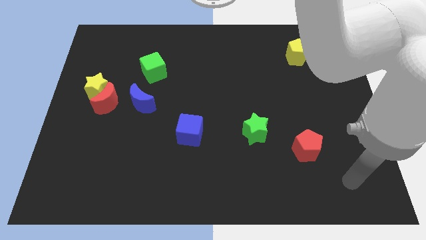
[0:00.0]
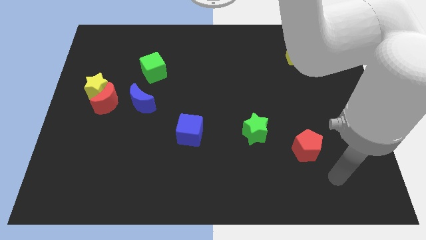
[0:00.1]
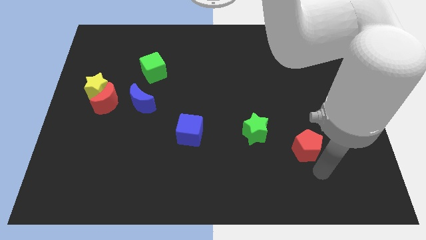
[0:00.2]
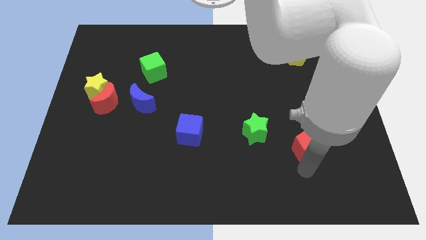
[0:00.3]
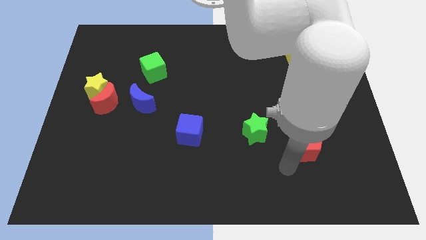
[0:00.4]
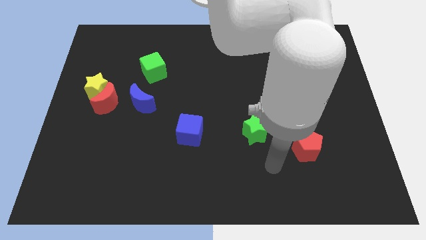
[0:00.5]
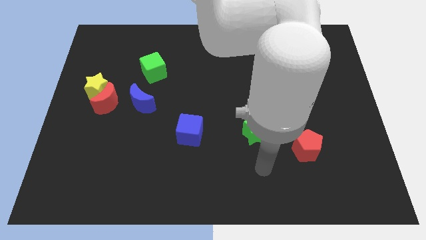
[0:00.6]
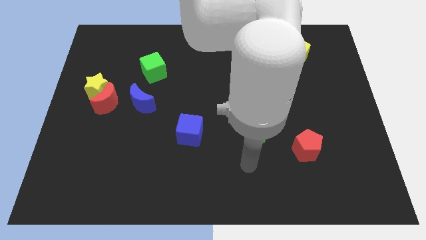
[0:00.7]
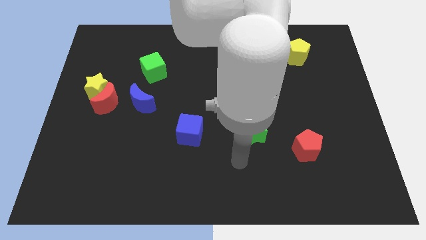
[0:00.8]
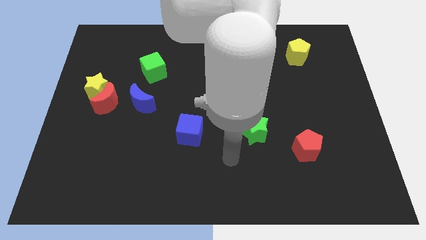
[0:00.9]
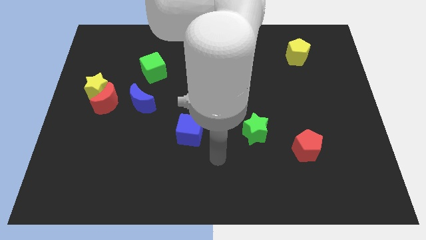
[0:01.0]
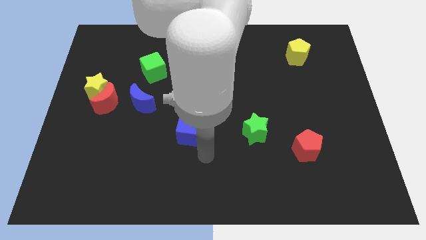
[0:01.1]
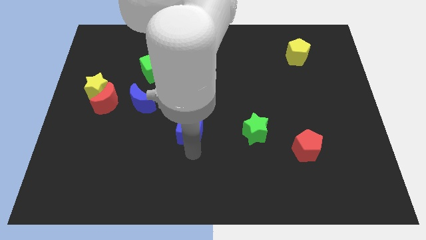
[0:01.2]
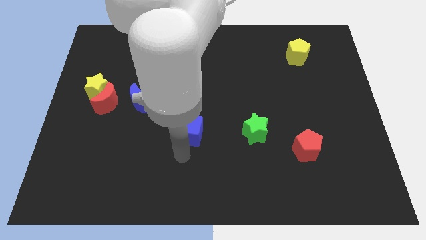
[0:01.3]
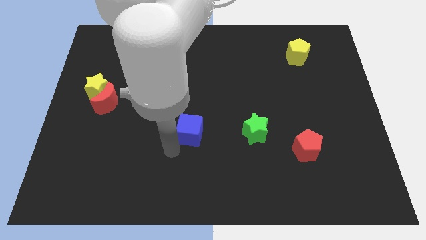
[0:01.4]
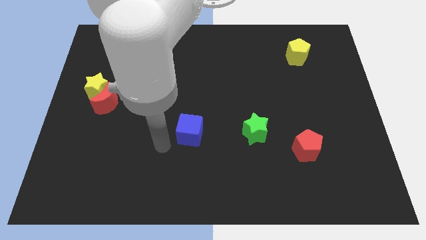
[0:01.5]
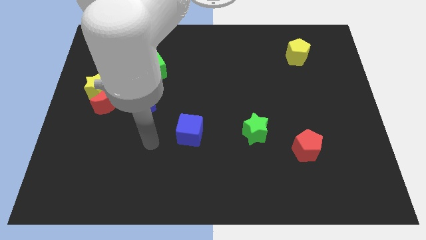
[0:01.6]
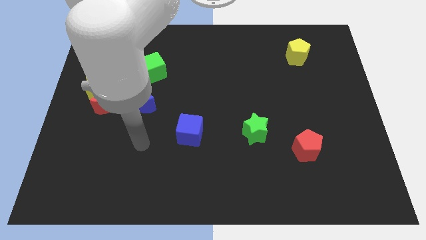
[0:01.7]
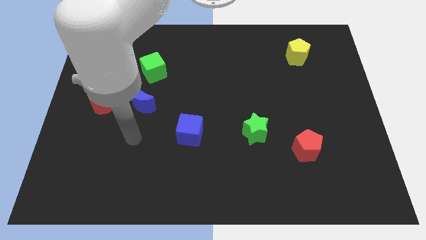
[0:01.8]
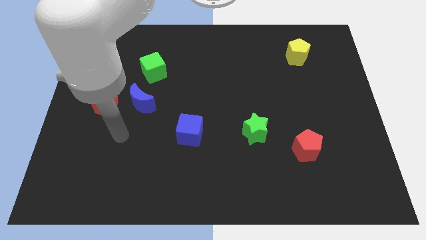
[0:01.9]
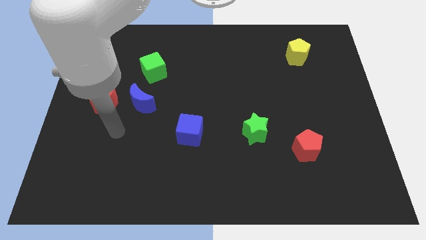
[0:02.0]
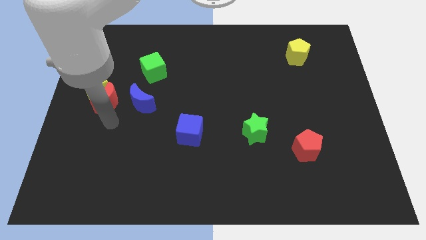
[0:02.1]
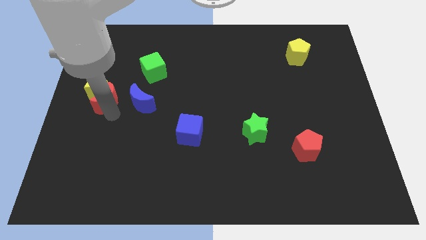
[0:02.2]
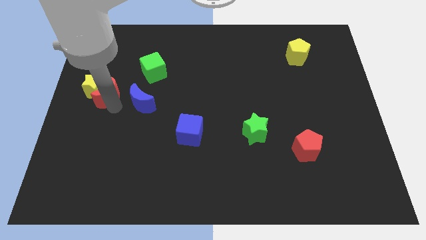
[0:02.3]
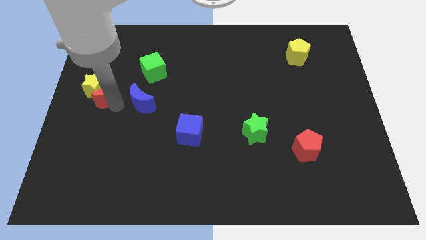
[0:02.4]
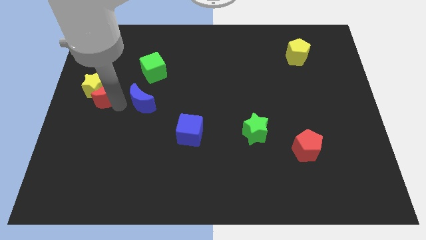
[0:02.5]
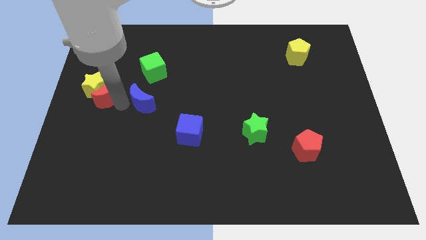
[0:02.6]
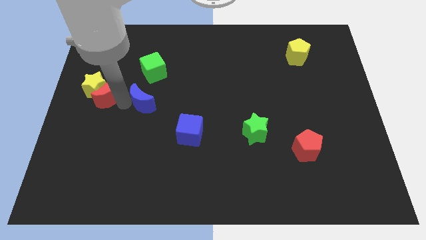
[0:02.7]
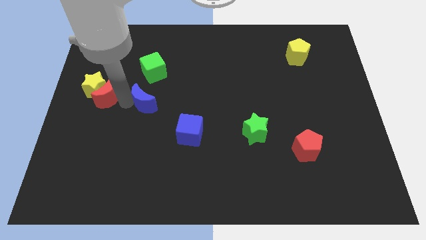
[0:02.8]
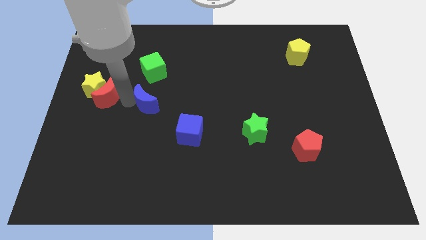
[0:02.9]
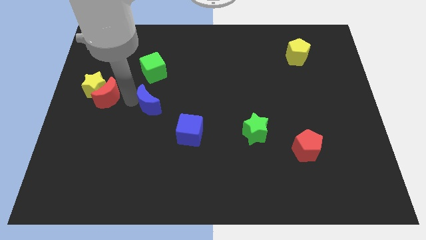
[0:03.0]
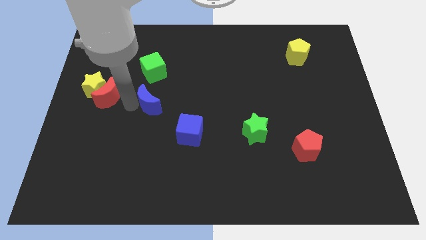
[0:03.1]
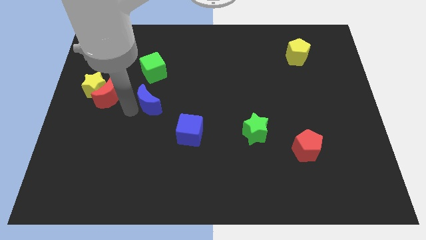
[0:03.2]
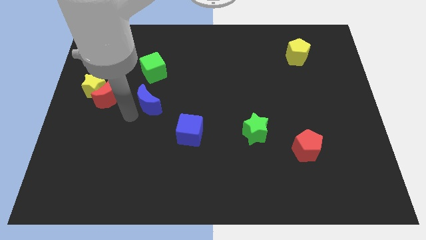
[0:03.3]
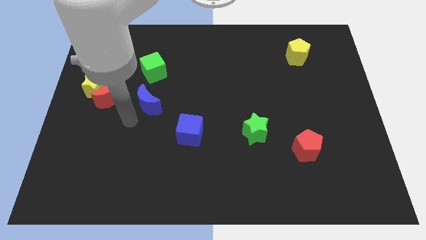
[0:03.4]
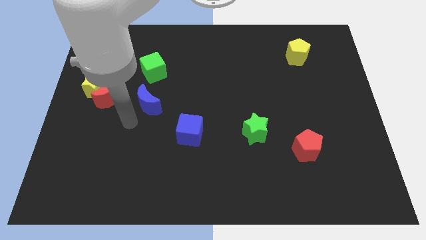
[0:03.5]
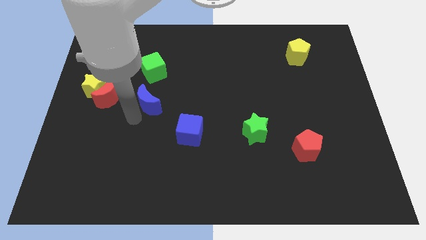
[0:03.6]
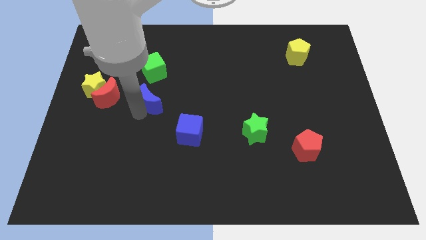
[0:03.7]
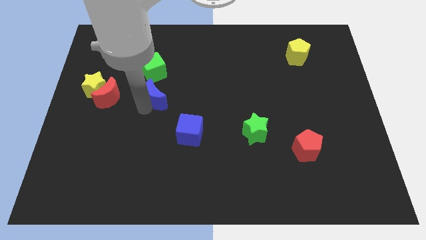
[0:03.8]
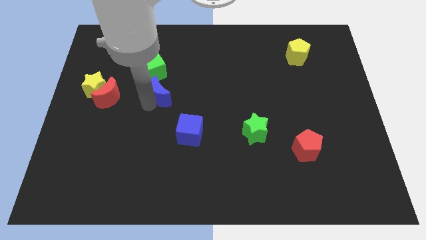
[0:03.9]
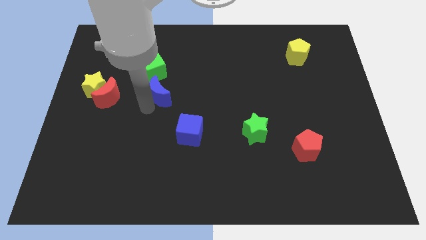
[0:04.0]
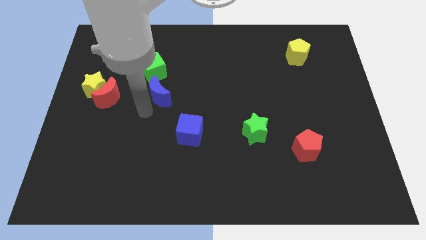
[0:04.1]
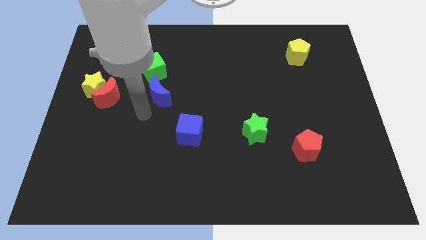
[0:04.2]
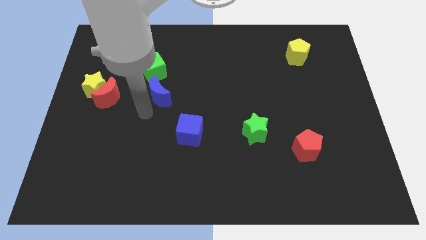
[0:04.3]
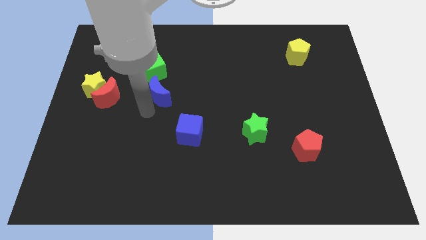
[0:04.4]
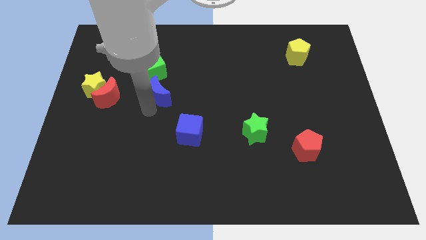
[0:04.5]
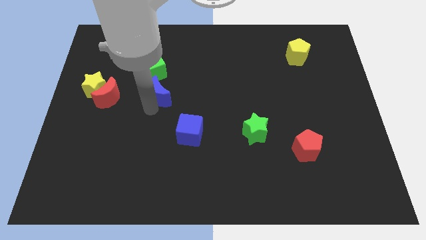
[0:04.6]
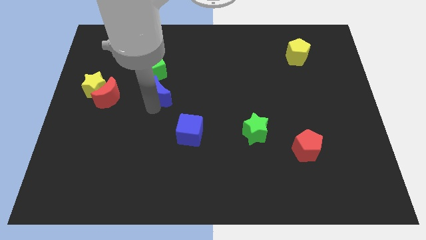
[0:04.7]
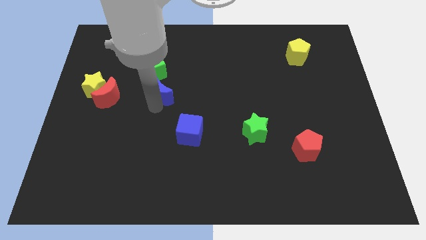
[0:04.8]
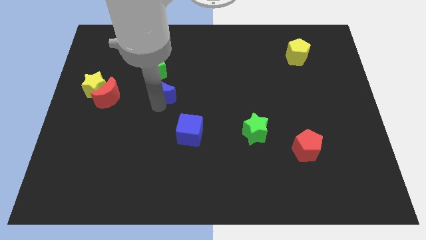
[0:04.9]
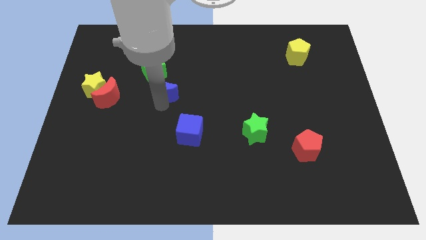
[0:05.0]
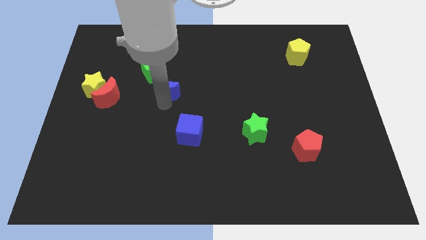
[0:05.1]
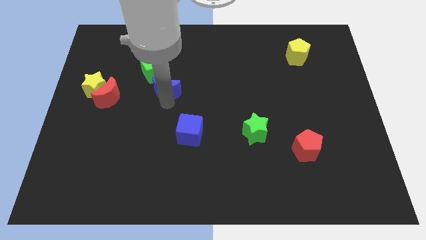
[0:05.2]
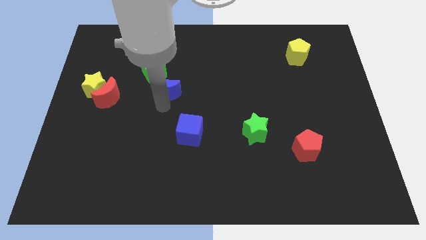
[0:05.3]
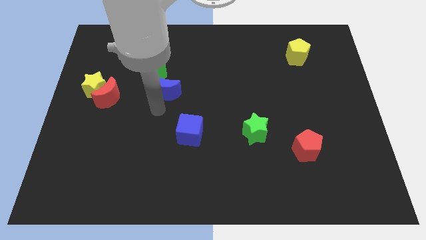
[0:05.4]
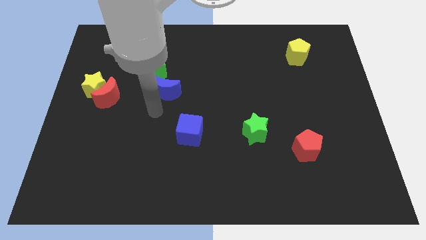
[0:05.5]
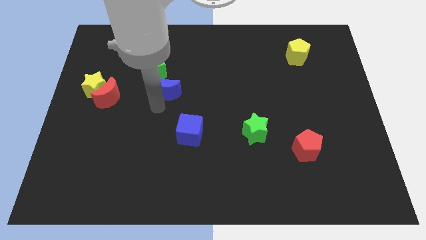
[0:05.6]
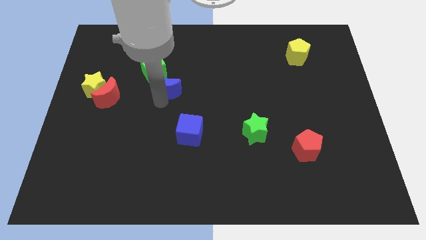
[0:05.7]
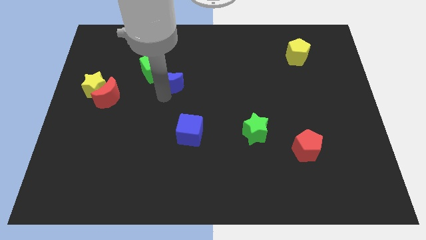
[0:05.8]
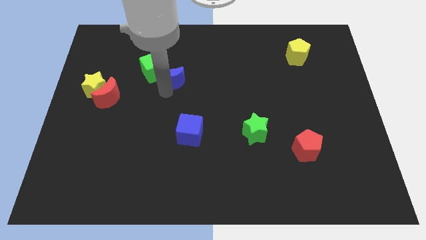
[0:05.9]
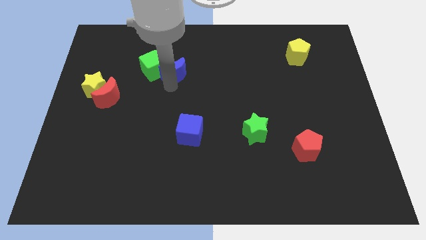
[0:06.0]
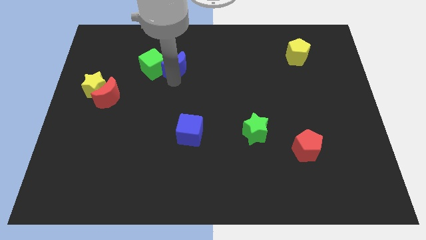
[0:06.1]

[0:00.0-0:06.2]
move the blue moon to the top right side of the green cube

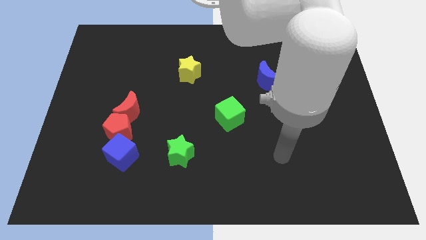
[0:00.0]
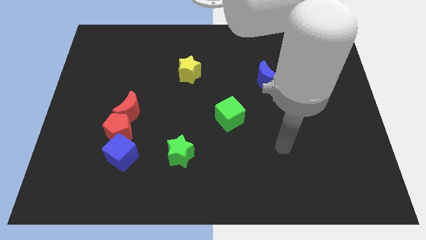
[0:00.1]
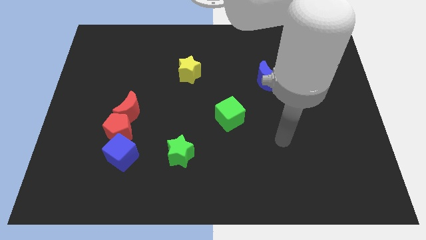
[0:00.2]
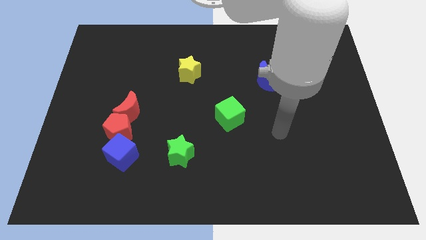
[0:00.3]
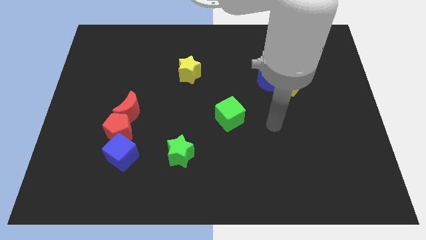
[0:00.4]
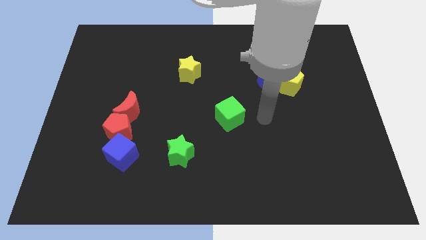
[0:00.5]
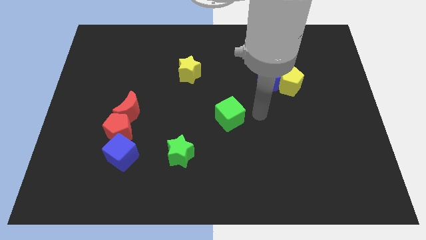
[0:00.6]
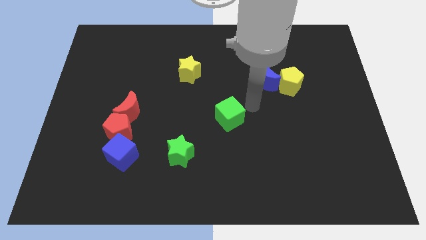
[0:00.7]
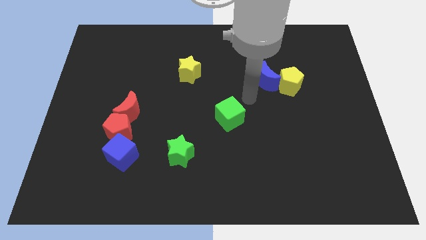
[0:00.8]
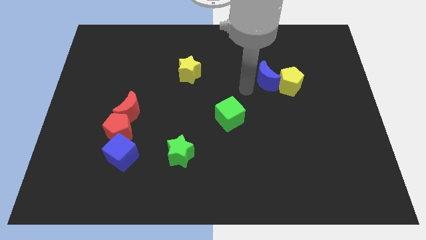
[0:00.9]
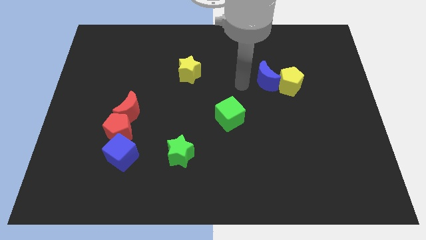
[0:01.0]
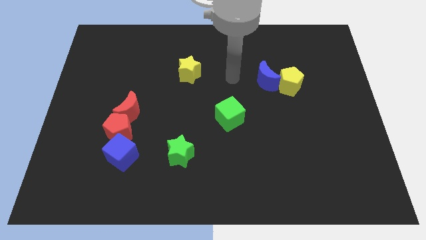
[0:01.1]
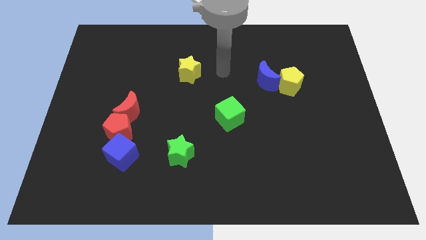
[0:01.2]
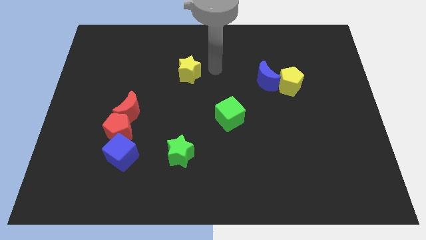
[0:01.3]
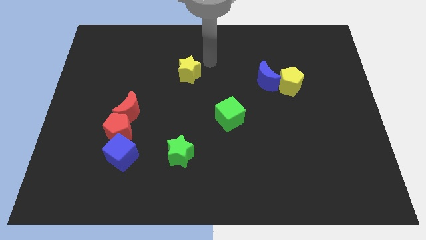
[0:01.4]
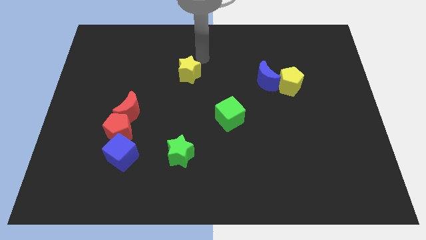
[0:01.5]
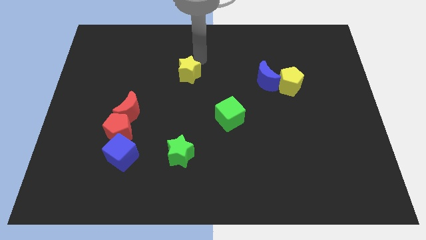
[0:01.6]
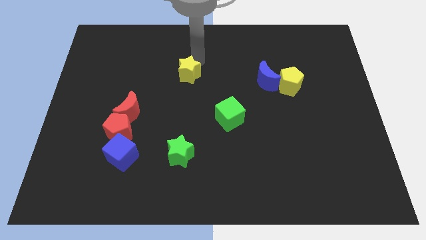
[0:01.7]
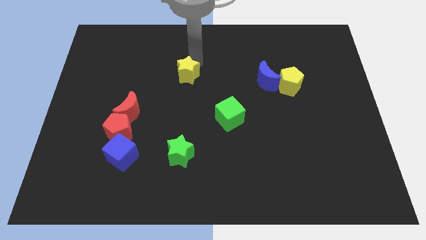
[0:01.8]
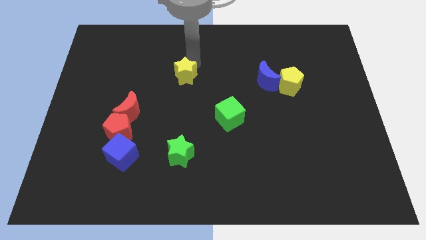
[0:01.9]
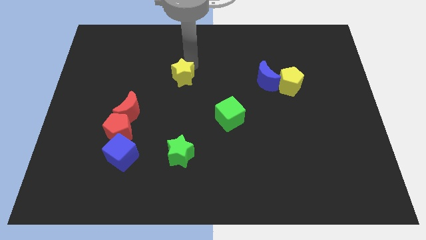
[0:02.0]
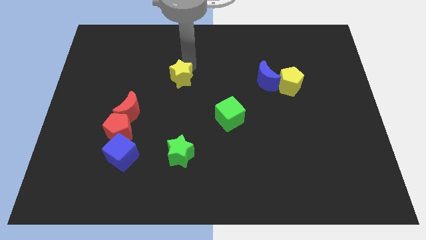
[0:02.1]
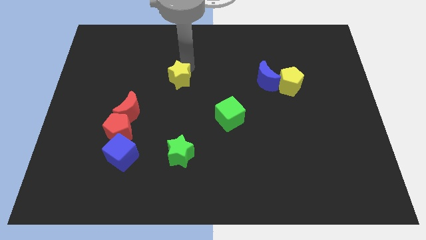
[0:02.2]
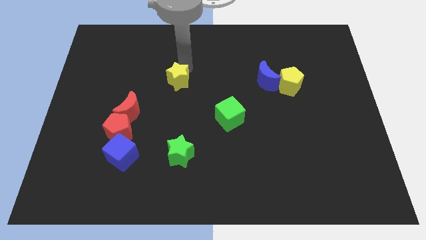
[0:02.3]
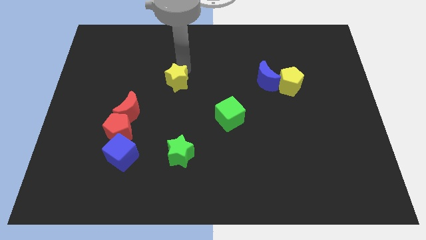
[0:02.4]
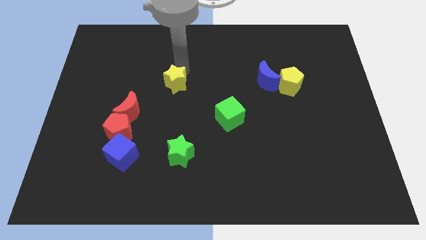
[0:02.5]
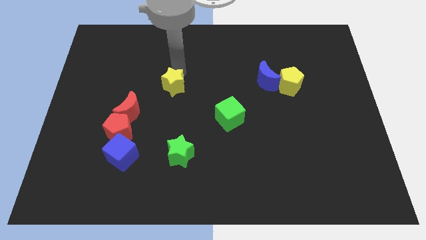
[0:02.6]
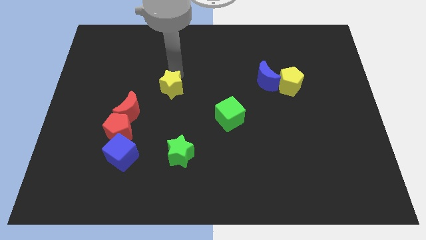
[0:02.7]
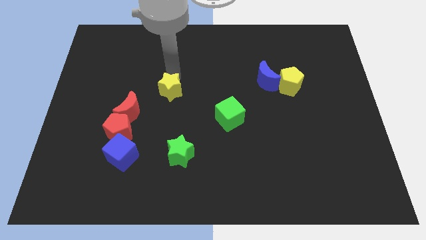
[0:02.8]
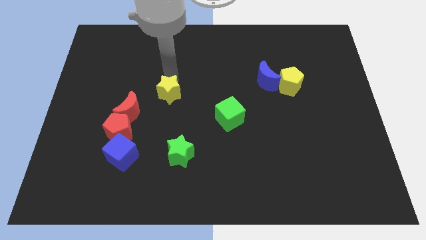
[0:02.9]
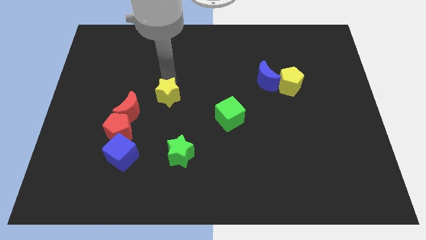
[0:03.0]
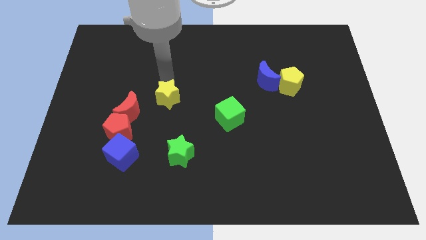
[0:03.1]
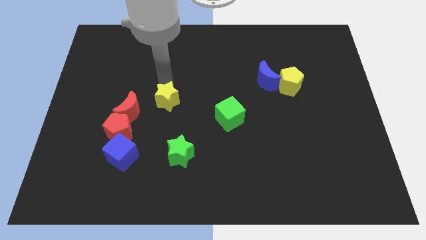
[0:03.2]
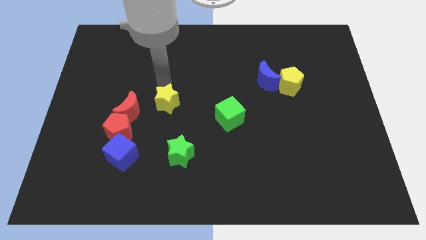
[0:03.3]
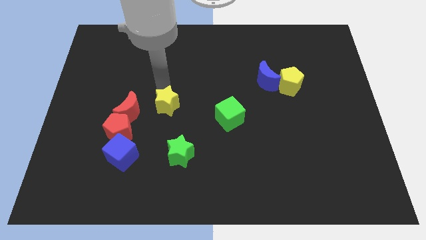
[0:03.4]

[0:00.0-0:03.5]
put the yellow star to the left side of the green cube
